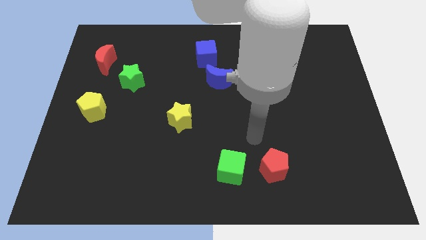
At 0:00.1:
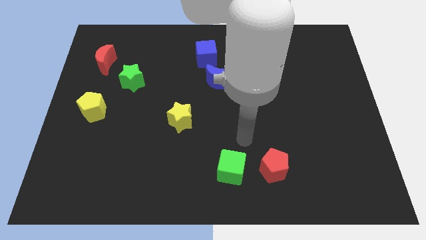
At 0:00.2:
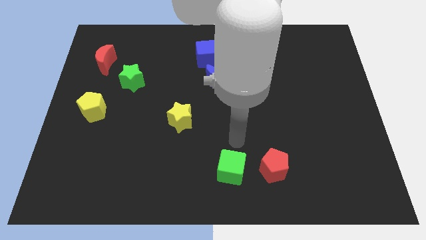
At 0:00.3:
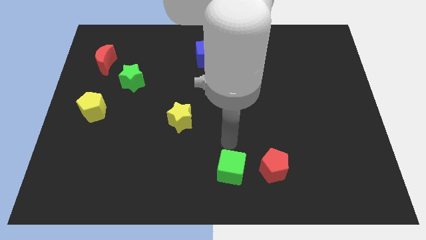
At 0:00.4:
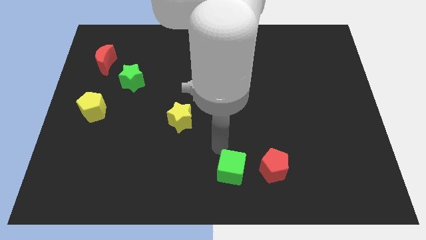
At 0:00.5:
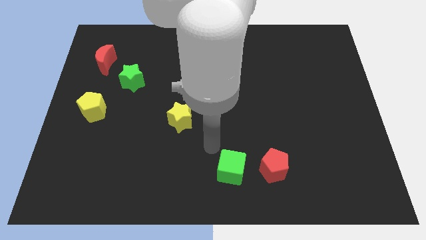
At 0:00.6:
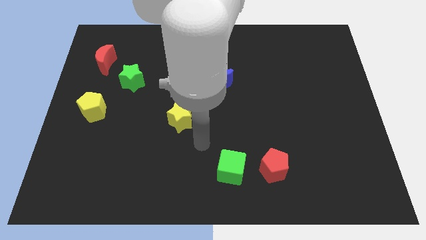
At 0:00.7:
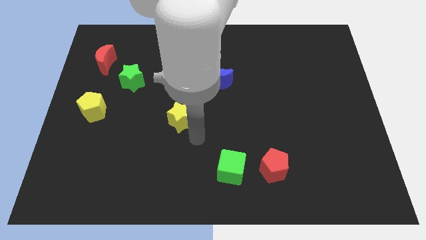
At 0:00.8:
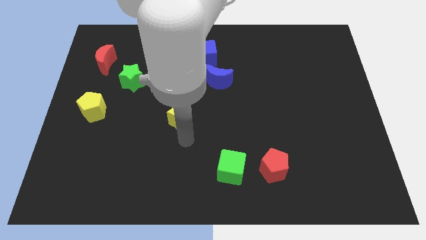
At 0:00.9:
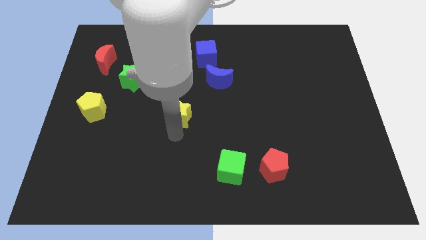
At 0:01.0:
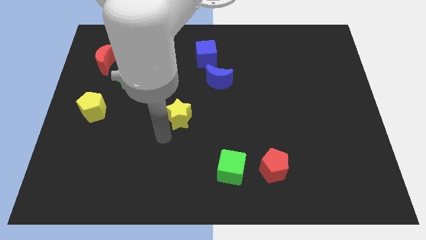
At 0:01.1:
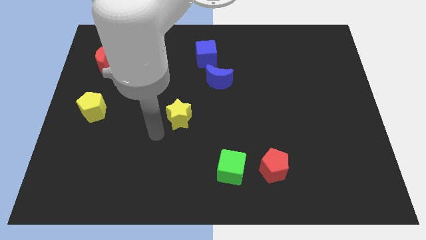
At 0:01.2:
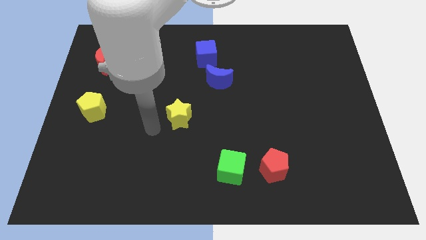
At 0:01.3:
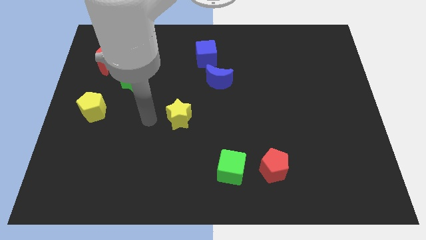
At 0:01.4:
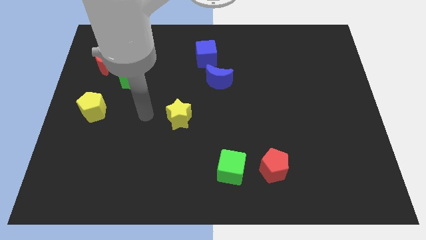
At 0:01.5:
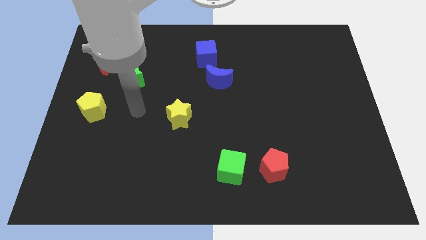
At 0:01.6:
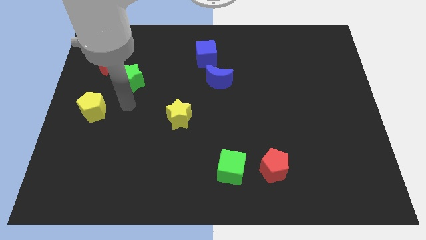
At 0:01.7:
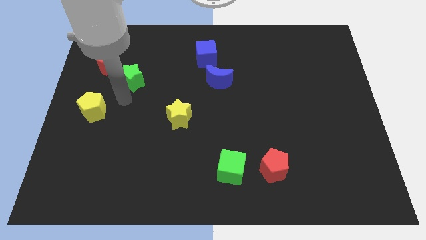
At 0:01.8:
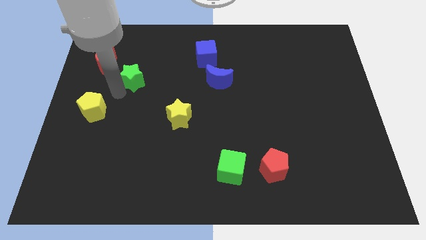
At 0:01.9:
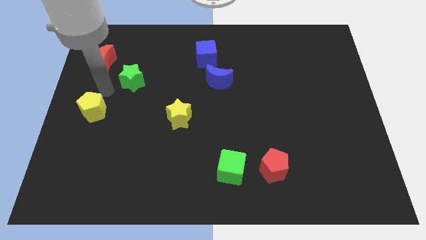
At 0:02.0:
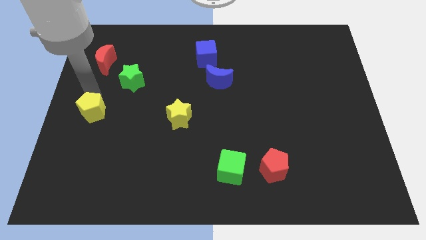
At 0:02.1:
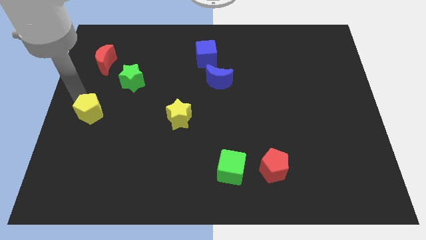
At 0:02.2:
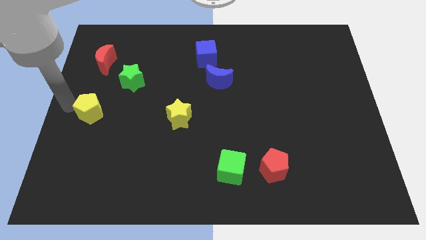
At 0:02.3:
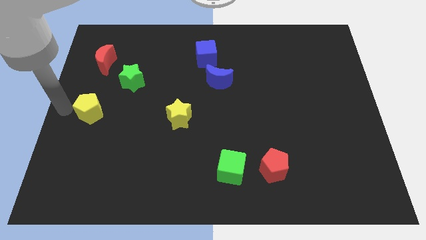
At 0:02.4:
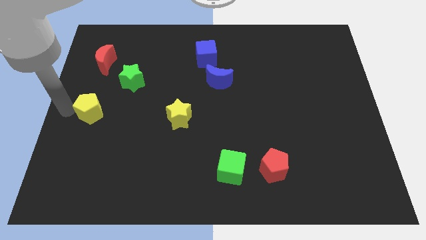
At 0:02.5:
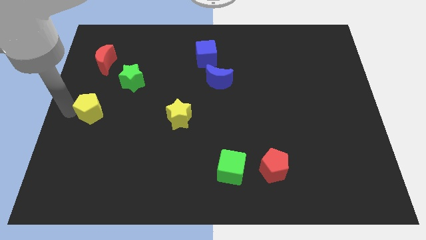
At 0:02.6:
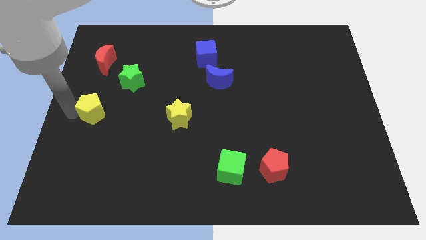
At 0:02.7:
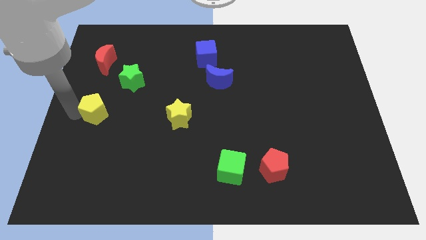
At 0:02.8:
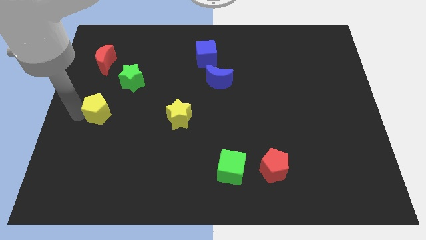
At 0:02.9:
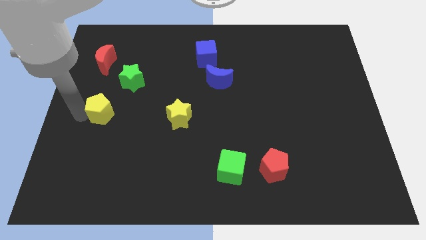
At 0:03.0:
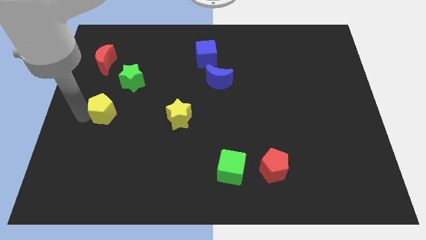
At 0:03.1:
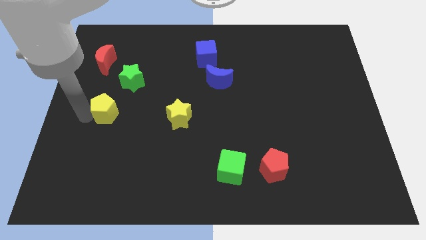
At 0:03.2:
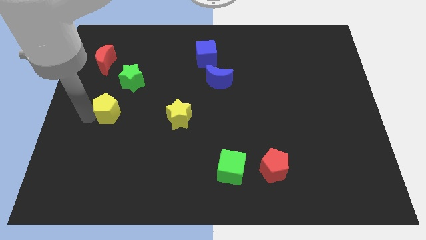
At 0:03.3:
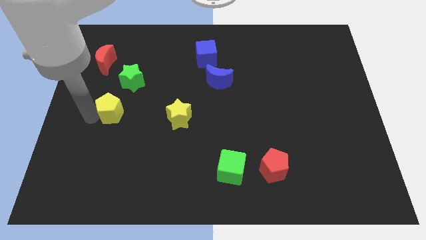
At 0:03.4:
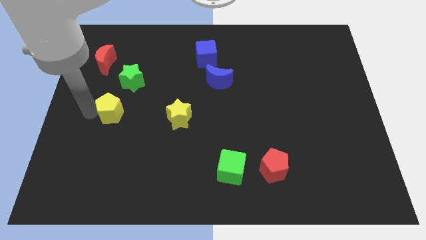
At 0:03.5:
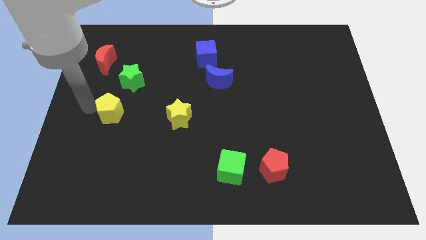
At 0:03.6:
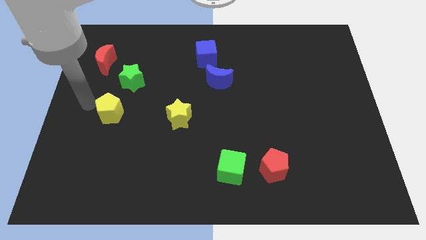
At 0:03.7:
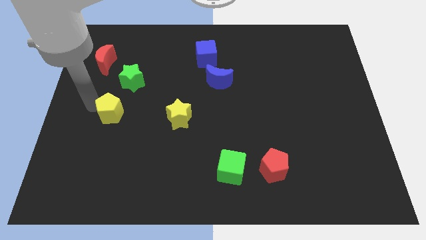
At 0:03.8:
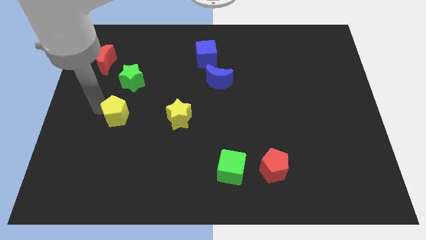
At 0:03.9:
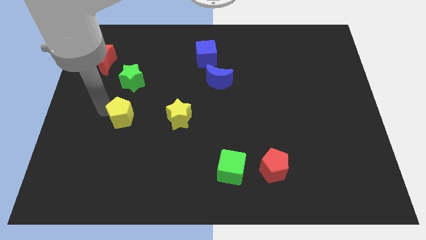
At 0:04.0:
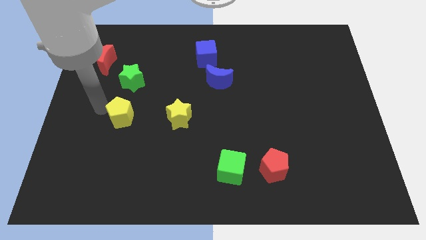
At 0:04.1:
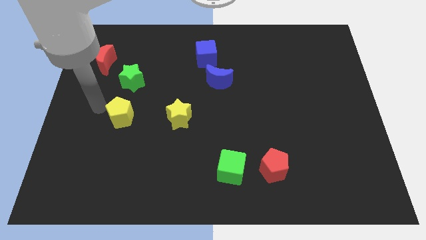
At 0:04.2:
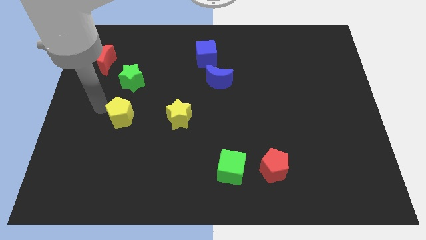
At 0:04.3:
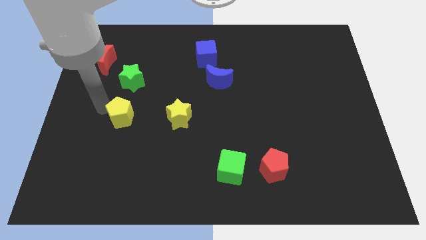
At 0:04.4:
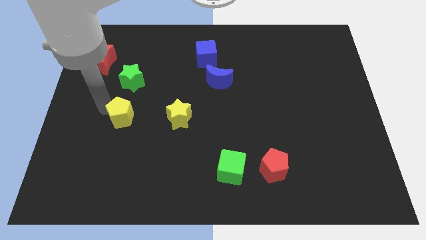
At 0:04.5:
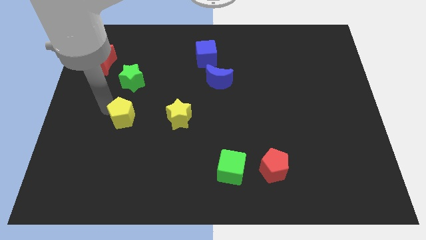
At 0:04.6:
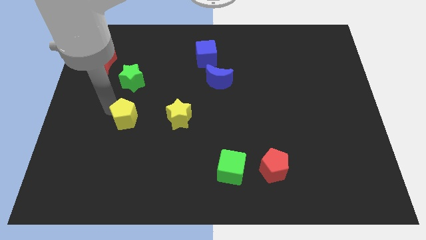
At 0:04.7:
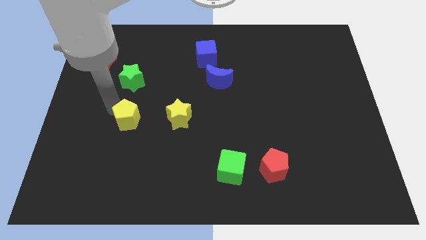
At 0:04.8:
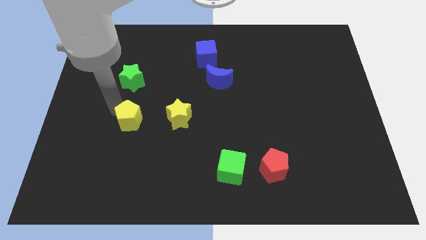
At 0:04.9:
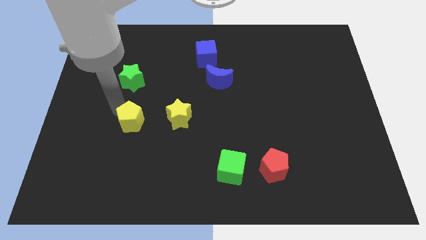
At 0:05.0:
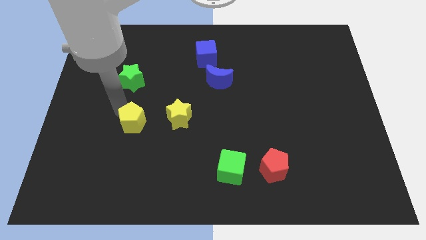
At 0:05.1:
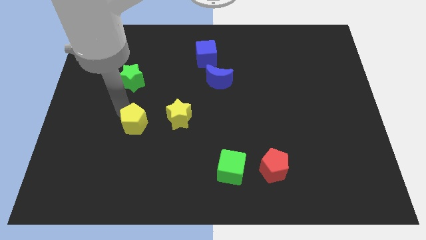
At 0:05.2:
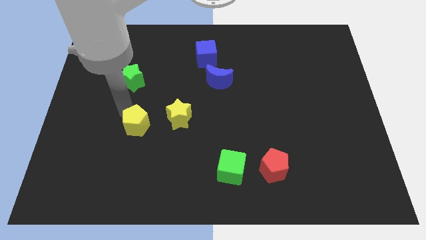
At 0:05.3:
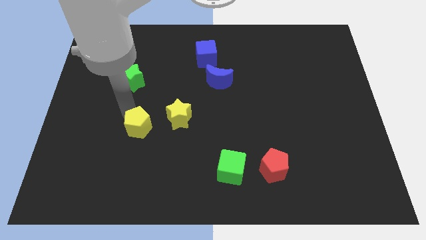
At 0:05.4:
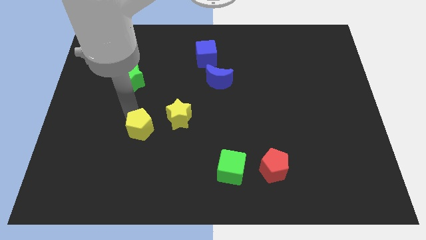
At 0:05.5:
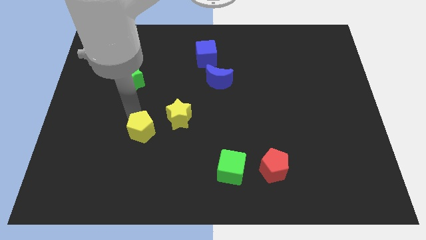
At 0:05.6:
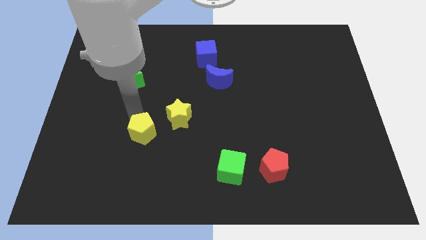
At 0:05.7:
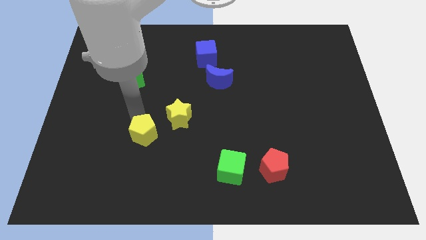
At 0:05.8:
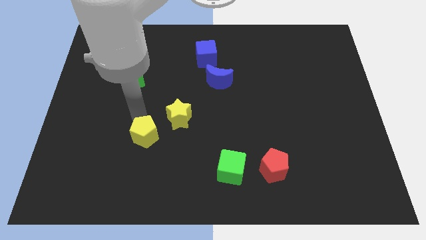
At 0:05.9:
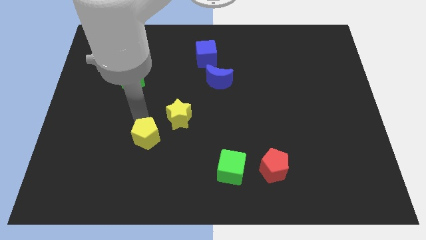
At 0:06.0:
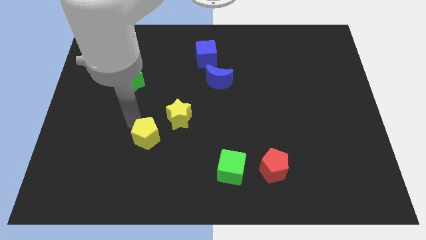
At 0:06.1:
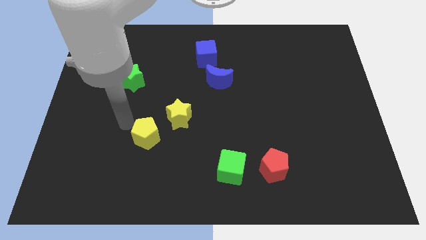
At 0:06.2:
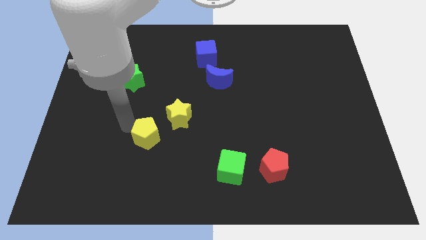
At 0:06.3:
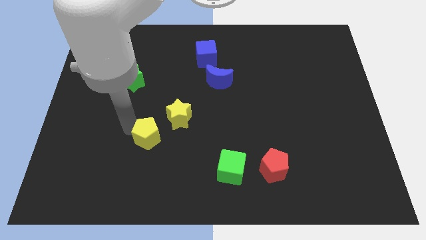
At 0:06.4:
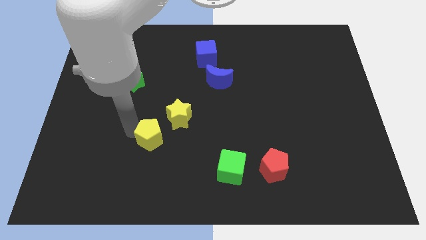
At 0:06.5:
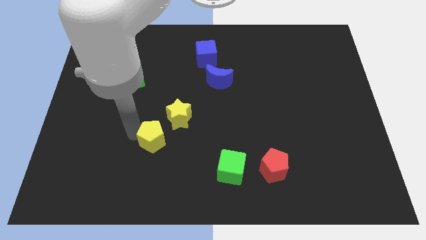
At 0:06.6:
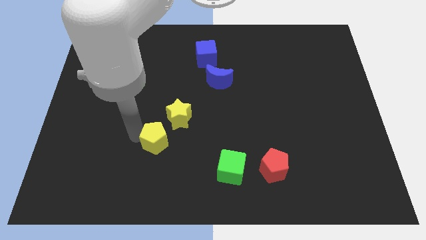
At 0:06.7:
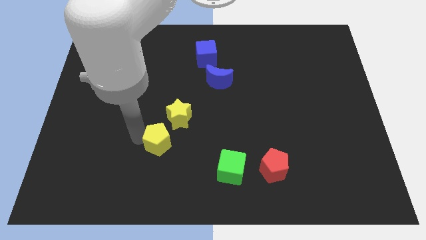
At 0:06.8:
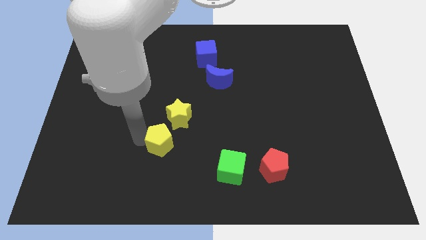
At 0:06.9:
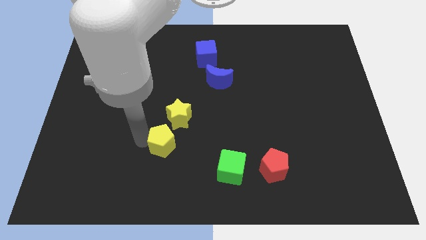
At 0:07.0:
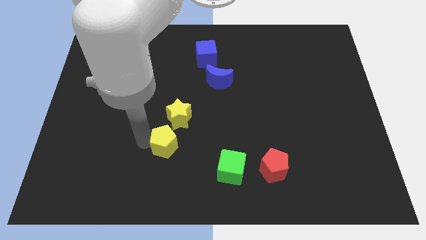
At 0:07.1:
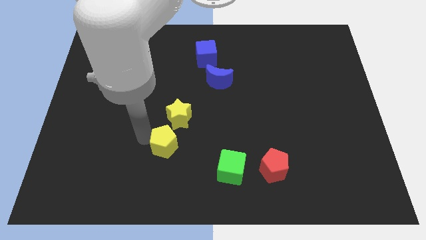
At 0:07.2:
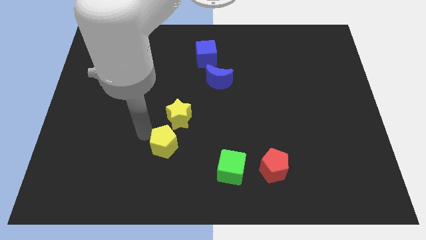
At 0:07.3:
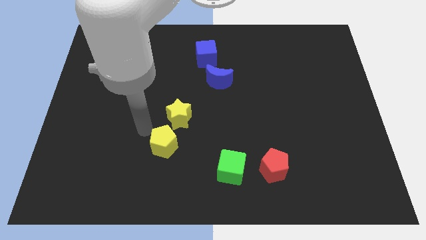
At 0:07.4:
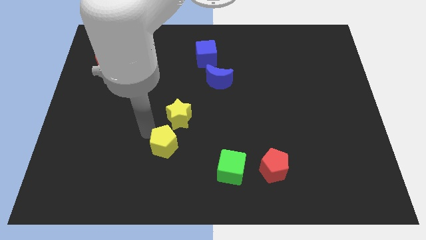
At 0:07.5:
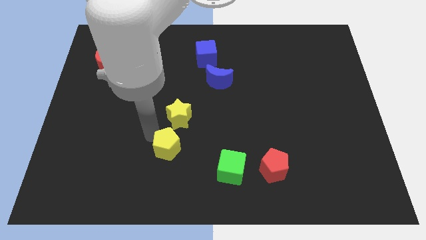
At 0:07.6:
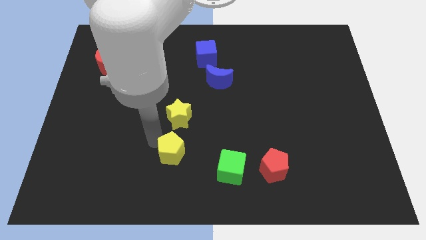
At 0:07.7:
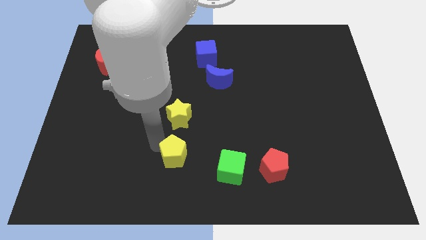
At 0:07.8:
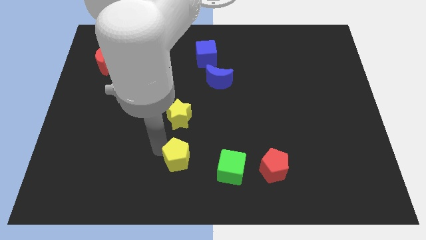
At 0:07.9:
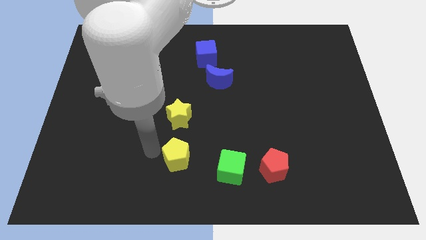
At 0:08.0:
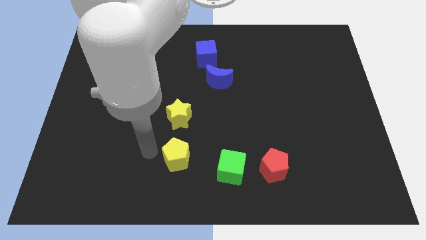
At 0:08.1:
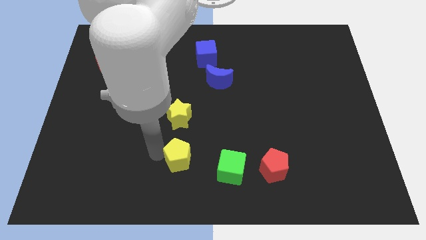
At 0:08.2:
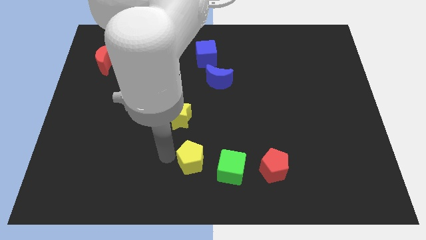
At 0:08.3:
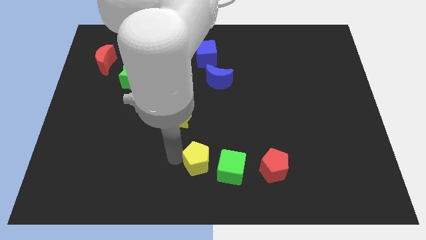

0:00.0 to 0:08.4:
move the yellow pentagon just left of the red pentagon
